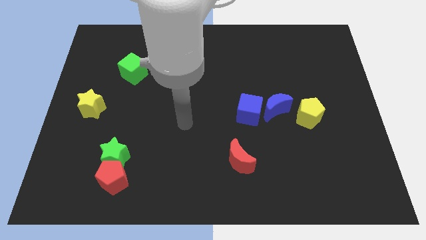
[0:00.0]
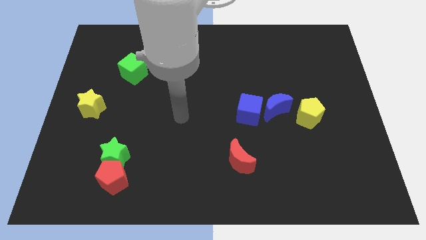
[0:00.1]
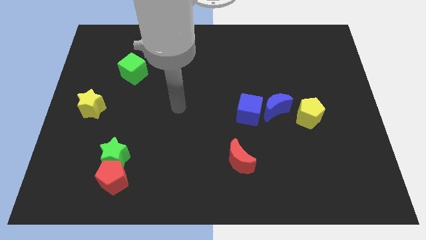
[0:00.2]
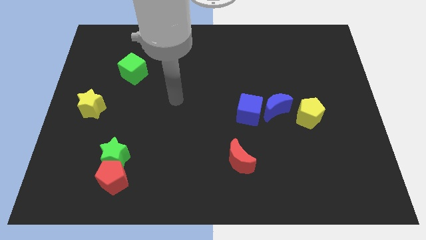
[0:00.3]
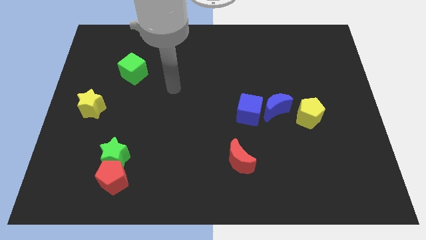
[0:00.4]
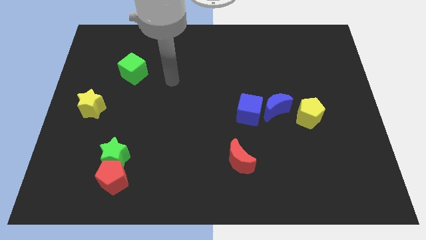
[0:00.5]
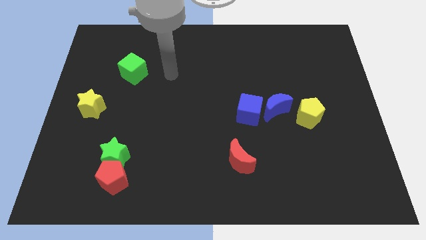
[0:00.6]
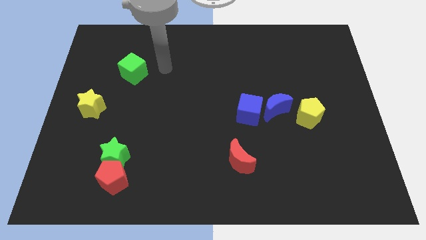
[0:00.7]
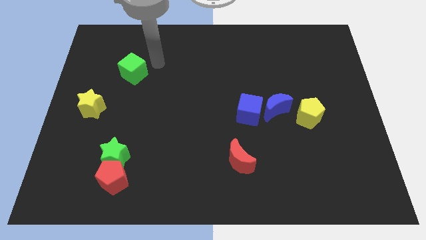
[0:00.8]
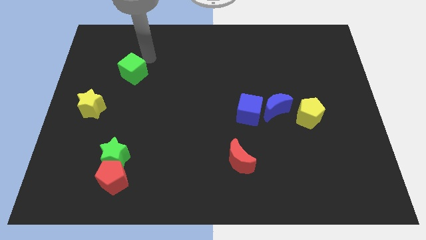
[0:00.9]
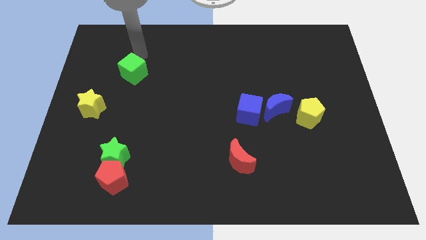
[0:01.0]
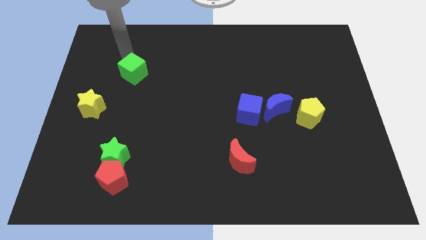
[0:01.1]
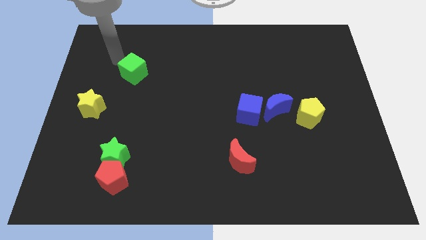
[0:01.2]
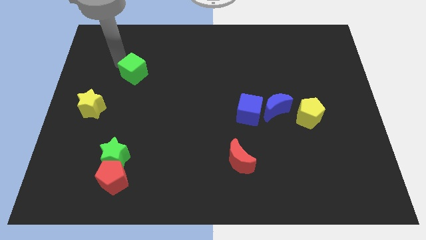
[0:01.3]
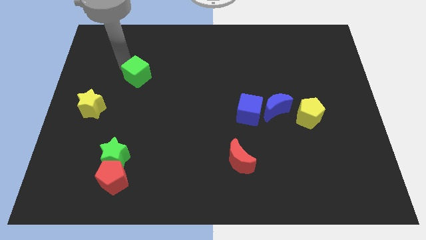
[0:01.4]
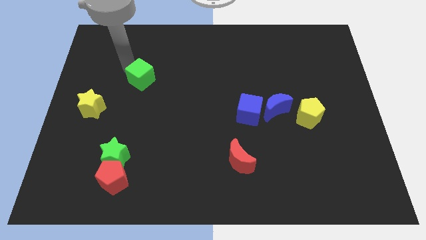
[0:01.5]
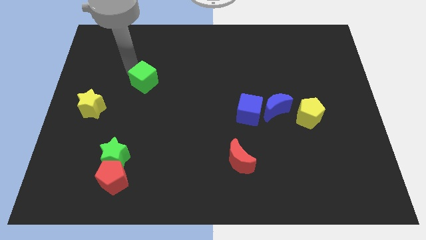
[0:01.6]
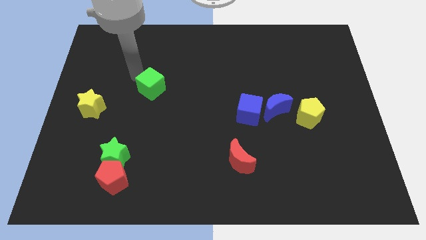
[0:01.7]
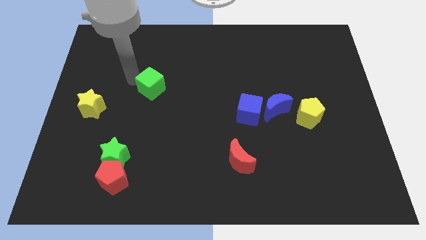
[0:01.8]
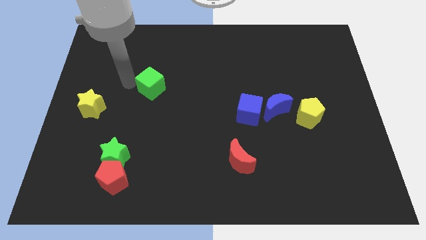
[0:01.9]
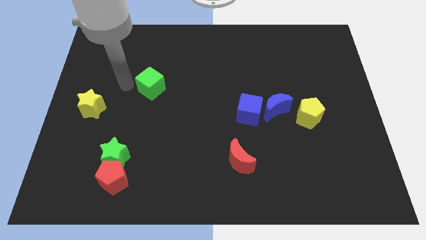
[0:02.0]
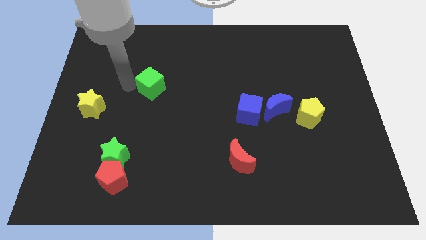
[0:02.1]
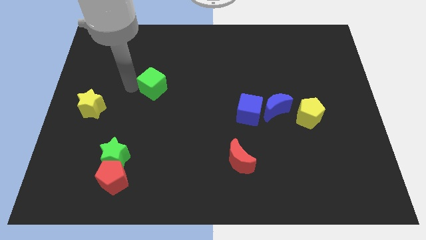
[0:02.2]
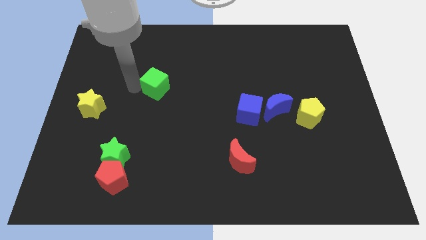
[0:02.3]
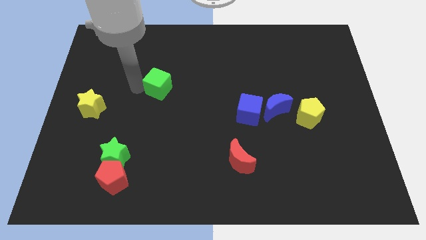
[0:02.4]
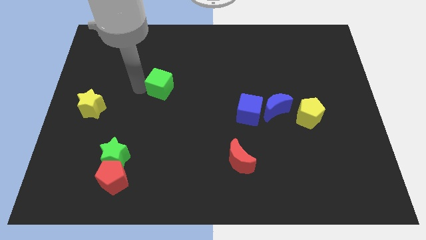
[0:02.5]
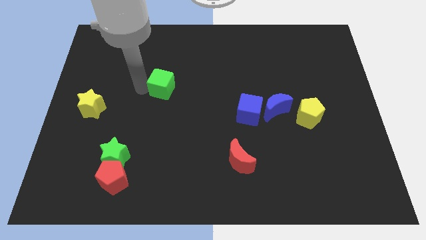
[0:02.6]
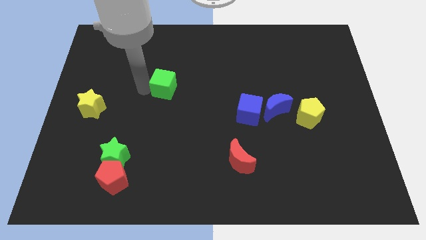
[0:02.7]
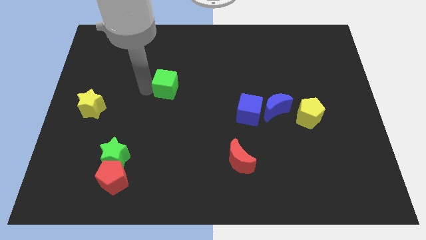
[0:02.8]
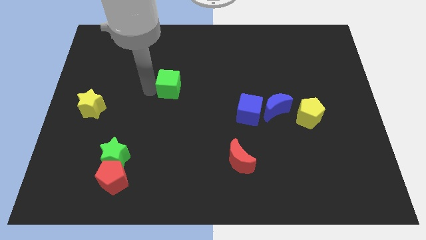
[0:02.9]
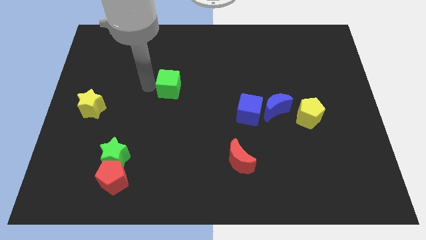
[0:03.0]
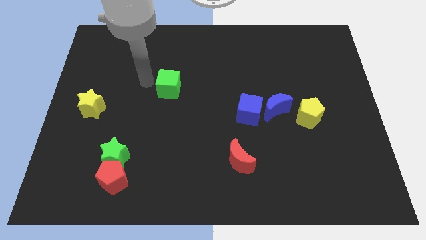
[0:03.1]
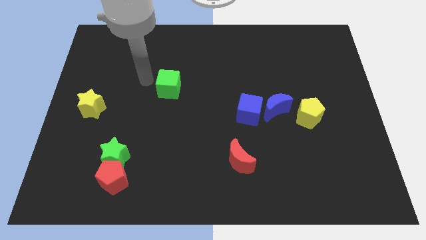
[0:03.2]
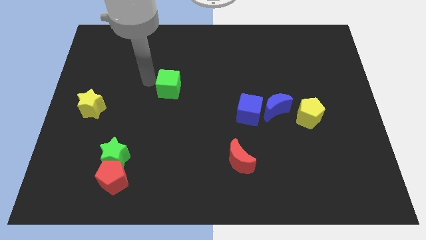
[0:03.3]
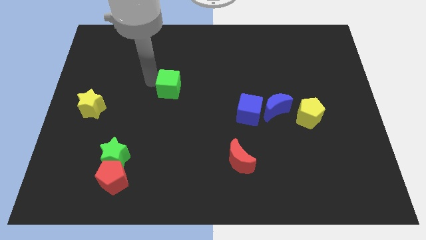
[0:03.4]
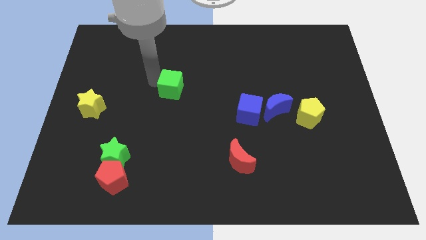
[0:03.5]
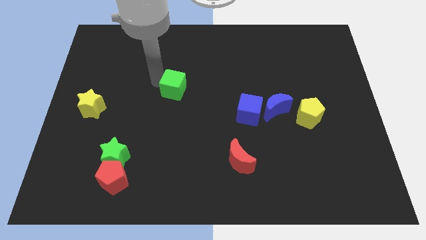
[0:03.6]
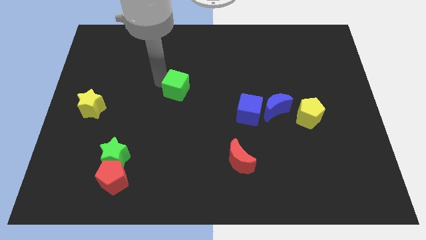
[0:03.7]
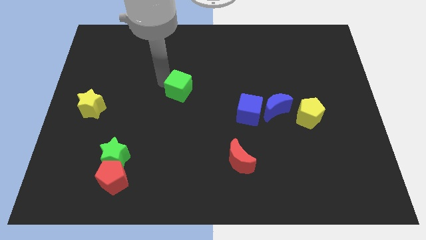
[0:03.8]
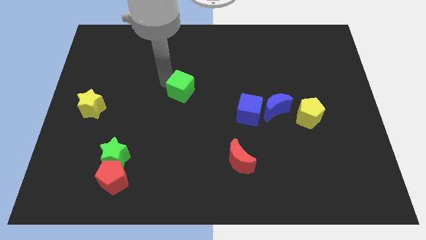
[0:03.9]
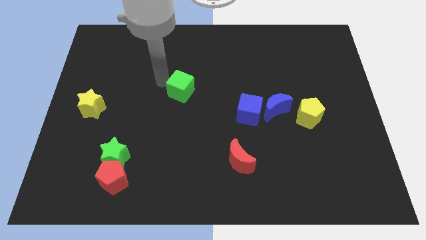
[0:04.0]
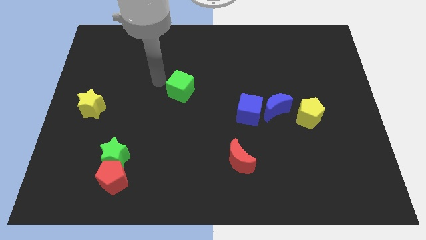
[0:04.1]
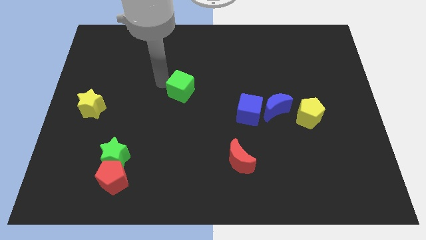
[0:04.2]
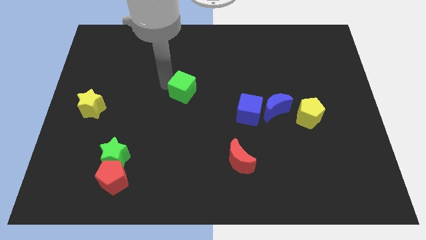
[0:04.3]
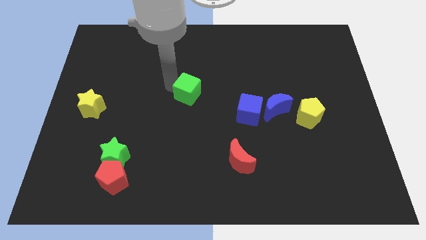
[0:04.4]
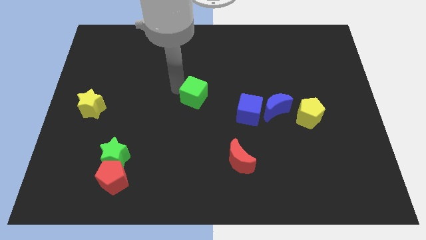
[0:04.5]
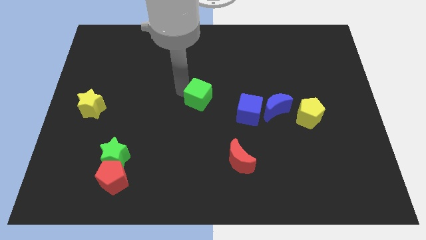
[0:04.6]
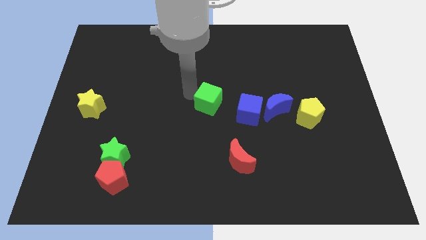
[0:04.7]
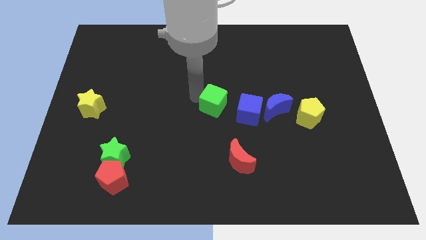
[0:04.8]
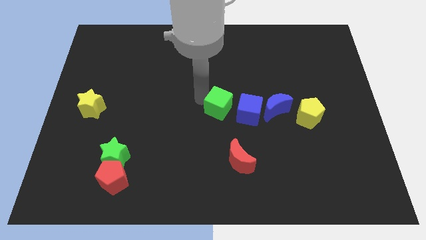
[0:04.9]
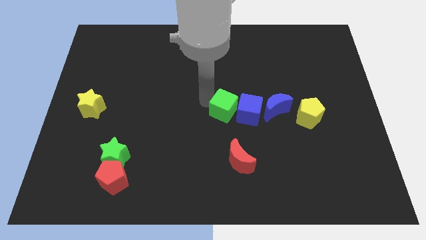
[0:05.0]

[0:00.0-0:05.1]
slide the green cube to the blue cube
